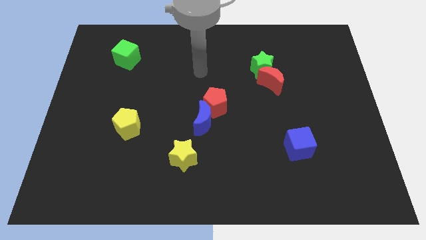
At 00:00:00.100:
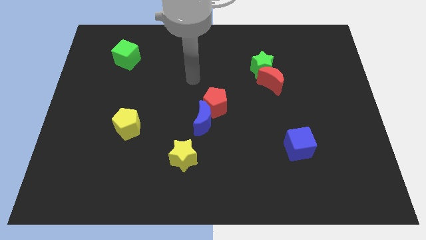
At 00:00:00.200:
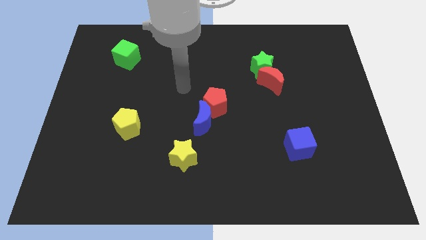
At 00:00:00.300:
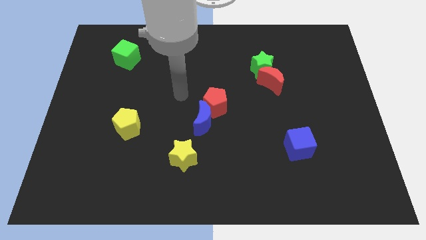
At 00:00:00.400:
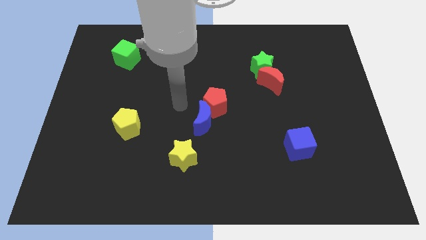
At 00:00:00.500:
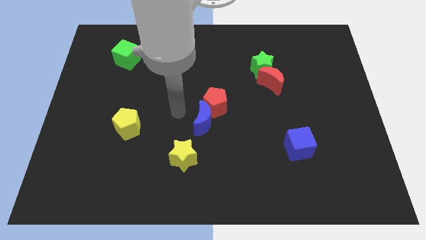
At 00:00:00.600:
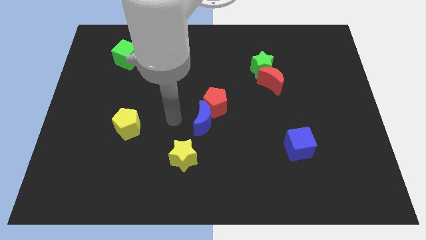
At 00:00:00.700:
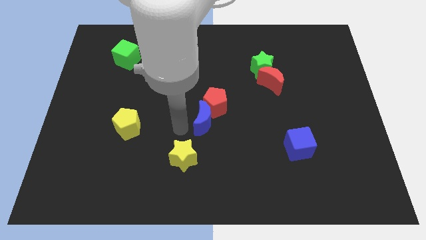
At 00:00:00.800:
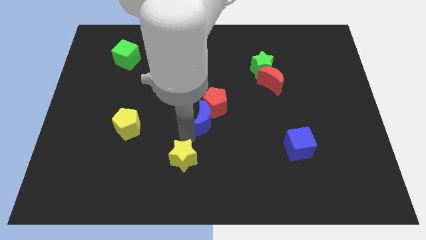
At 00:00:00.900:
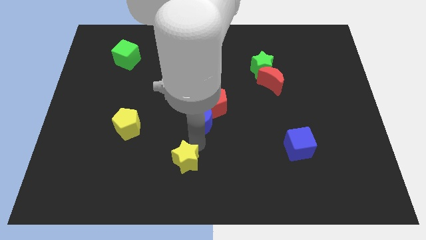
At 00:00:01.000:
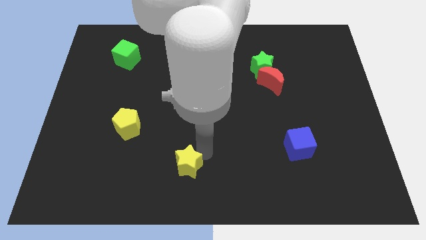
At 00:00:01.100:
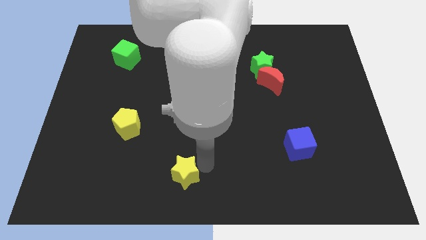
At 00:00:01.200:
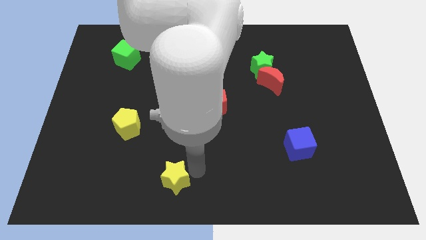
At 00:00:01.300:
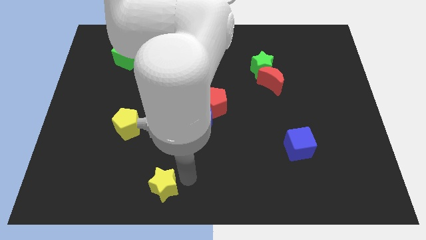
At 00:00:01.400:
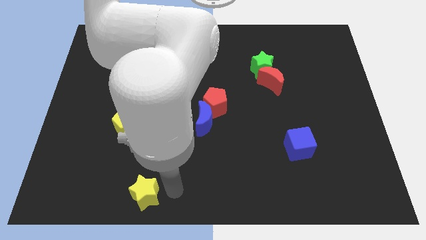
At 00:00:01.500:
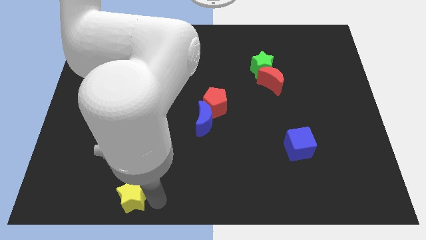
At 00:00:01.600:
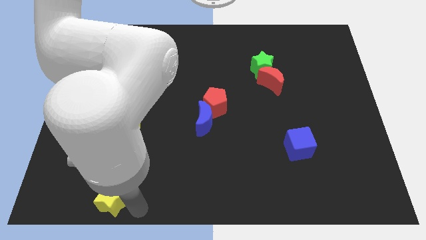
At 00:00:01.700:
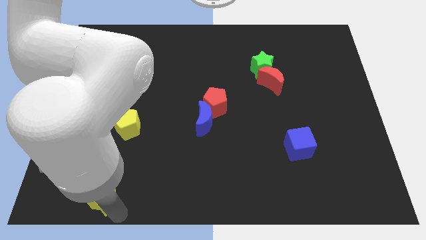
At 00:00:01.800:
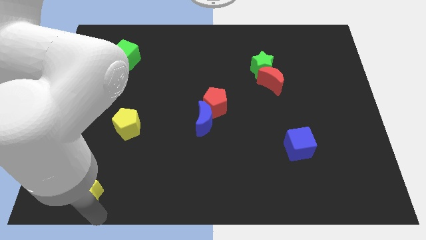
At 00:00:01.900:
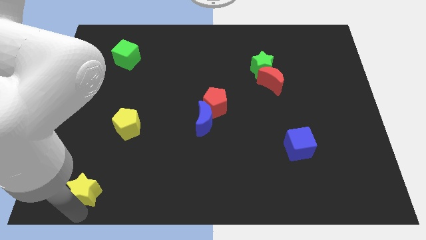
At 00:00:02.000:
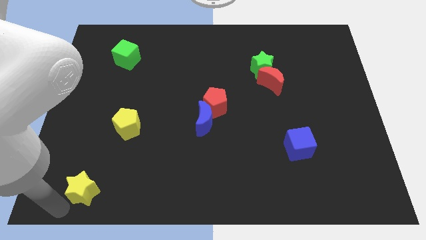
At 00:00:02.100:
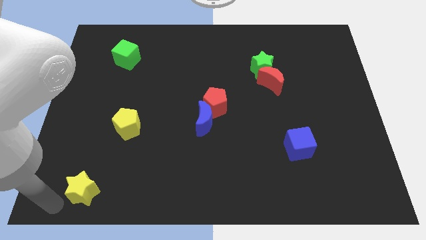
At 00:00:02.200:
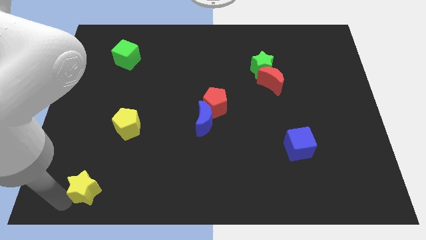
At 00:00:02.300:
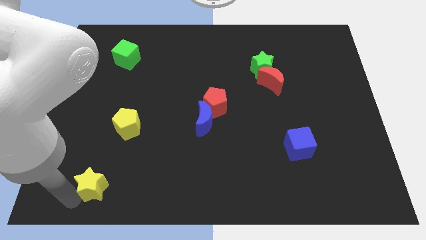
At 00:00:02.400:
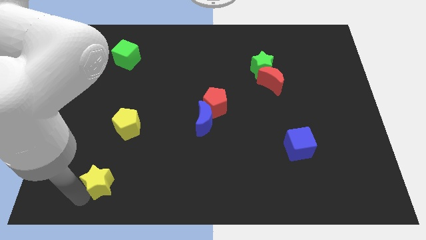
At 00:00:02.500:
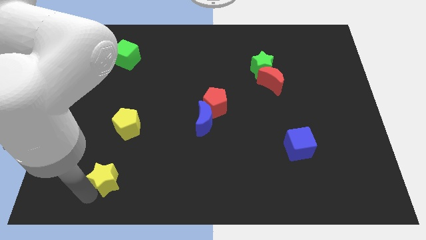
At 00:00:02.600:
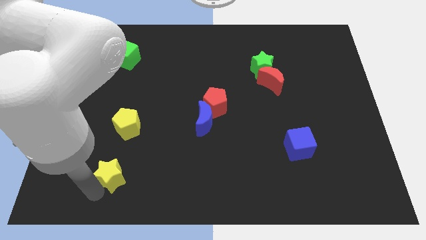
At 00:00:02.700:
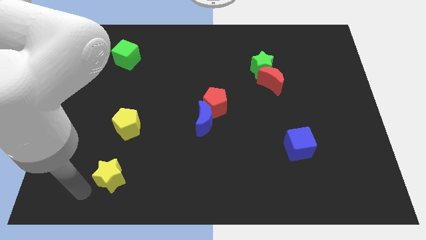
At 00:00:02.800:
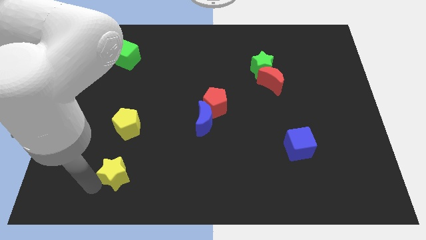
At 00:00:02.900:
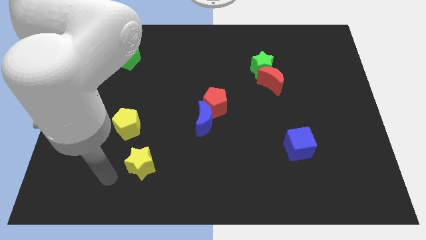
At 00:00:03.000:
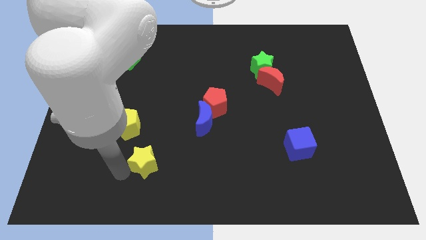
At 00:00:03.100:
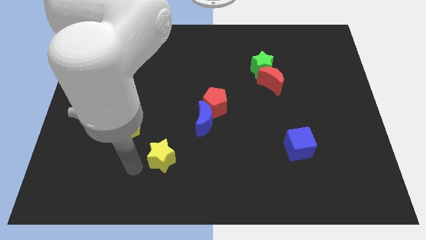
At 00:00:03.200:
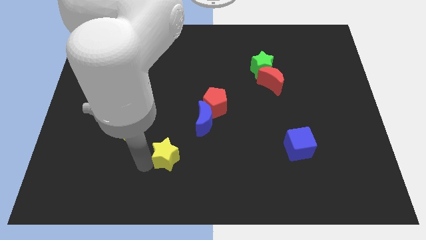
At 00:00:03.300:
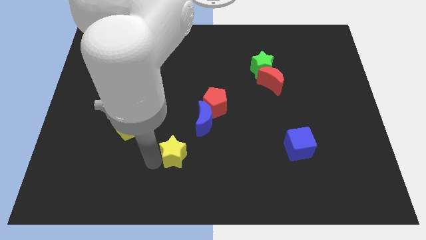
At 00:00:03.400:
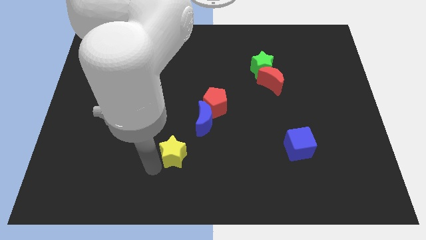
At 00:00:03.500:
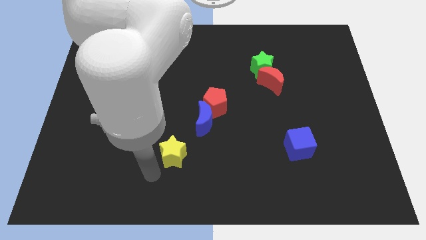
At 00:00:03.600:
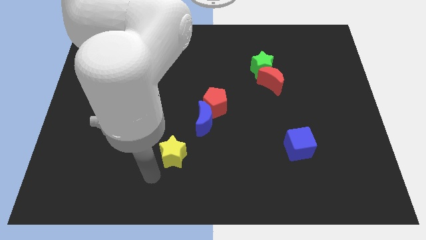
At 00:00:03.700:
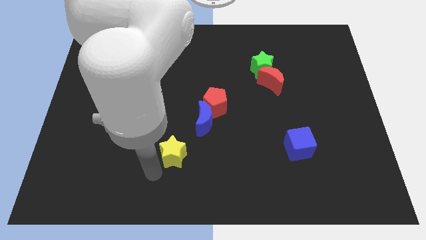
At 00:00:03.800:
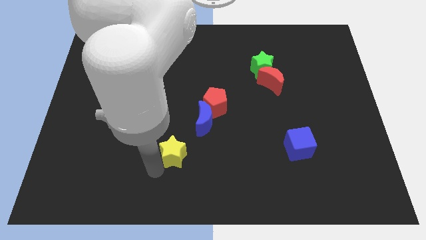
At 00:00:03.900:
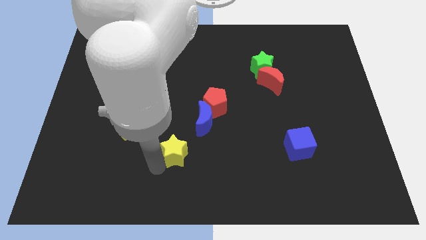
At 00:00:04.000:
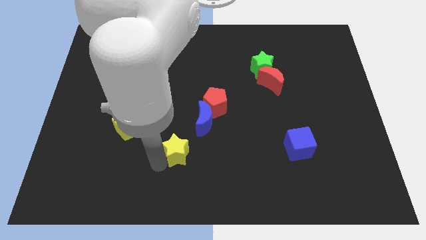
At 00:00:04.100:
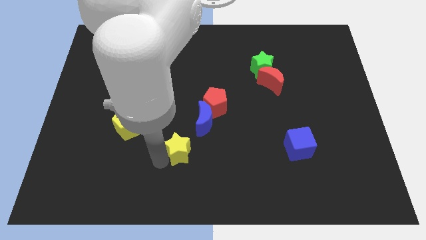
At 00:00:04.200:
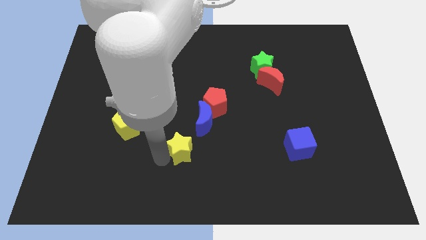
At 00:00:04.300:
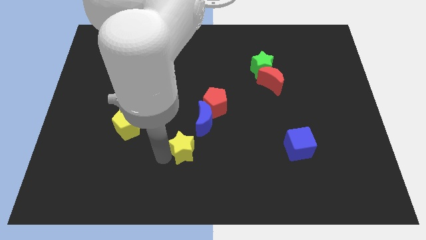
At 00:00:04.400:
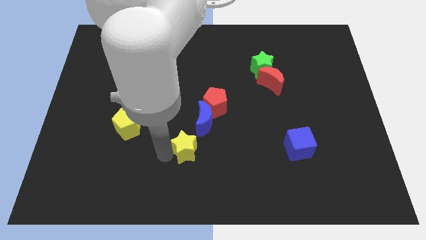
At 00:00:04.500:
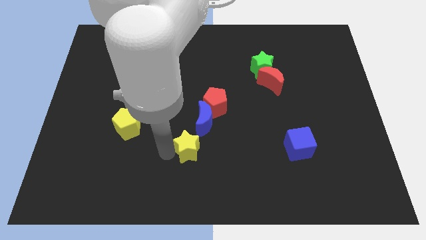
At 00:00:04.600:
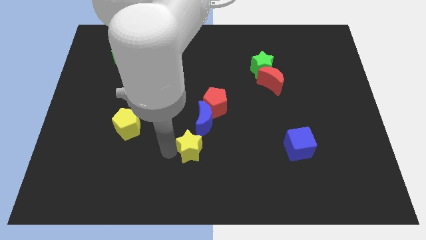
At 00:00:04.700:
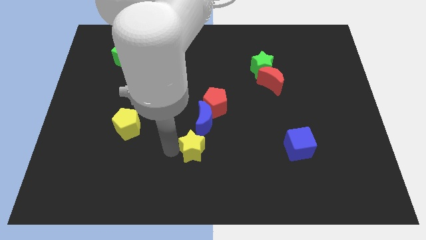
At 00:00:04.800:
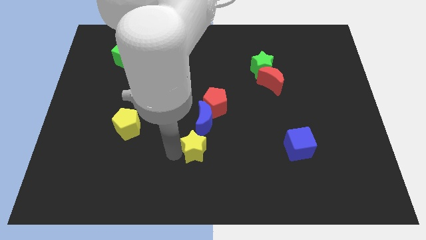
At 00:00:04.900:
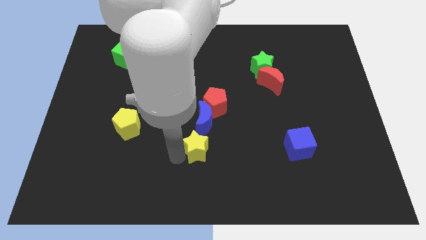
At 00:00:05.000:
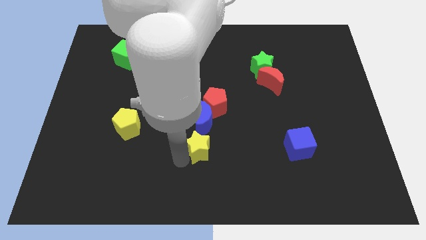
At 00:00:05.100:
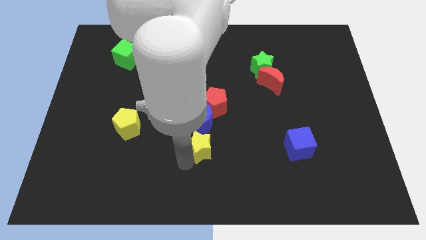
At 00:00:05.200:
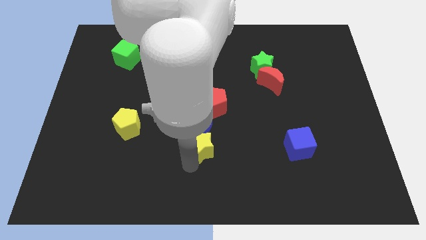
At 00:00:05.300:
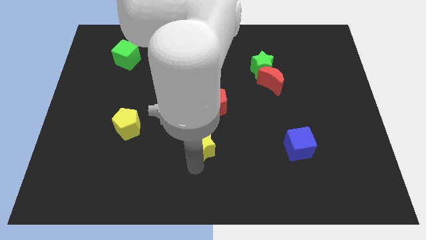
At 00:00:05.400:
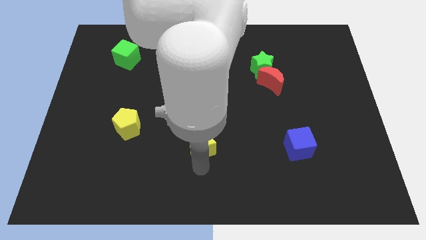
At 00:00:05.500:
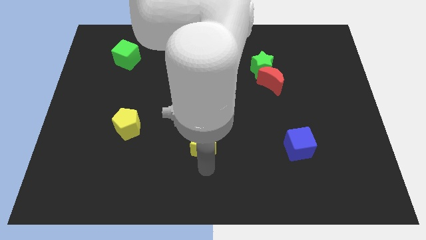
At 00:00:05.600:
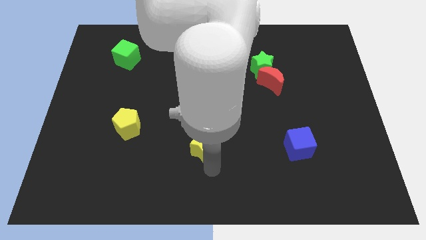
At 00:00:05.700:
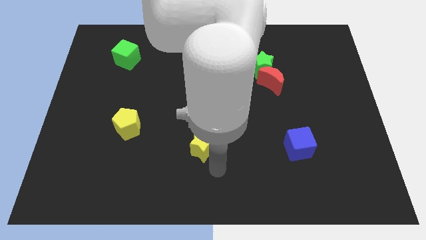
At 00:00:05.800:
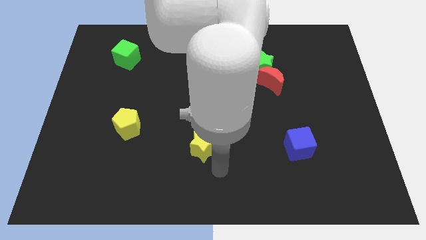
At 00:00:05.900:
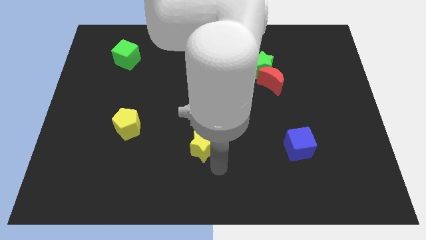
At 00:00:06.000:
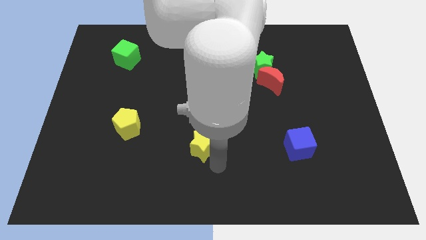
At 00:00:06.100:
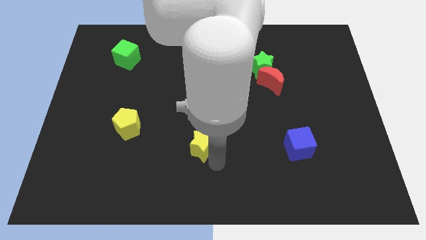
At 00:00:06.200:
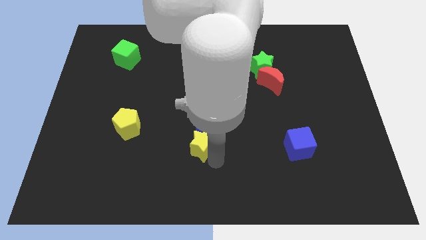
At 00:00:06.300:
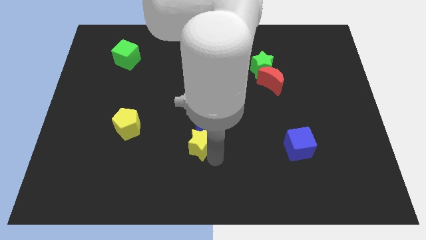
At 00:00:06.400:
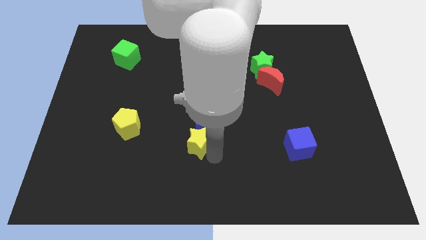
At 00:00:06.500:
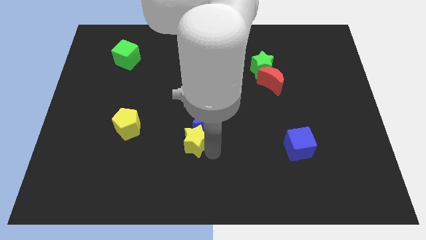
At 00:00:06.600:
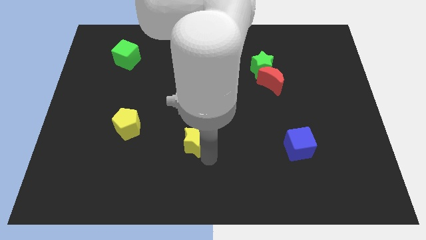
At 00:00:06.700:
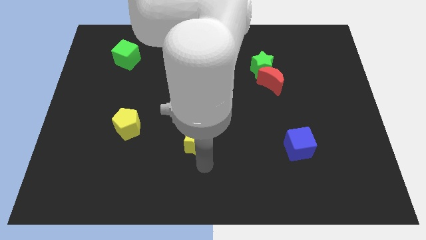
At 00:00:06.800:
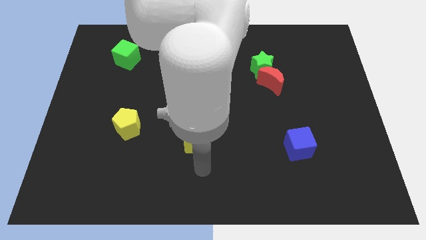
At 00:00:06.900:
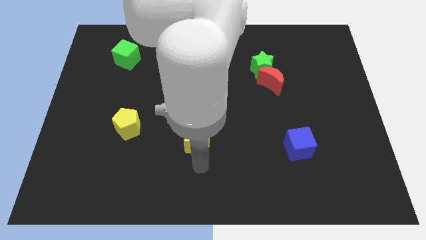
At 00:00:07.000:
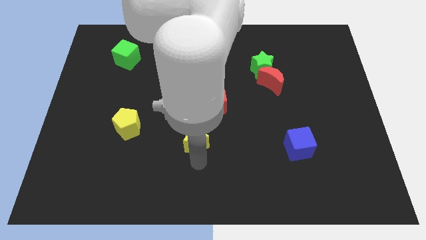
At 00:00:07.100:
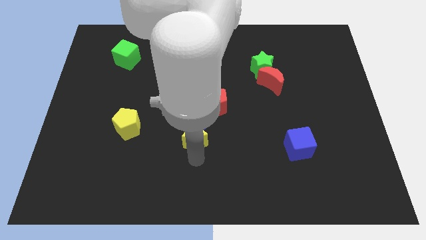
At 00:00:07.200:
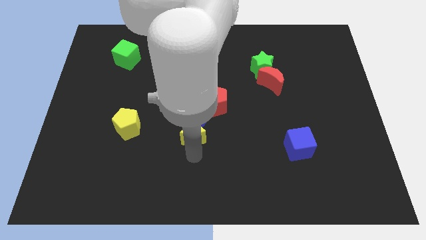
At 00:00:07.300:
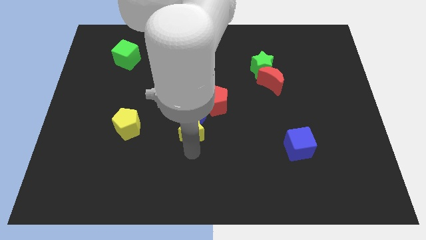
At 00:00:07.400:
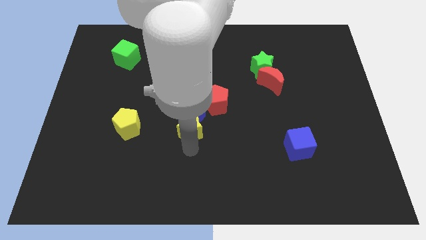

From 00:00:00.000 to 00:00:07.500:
slide the yellow star up a bit

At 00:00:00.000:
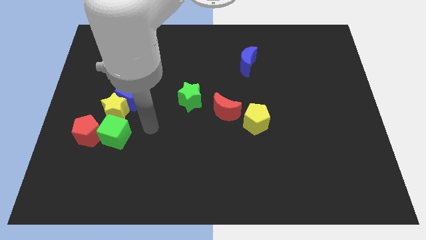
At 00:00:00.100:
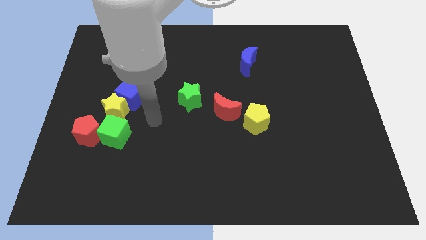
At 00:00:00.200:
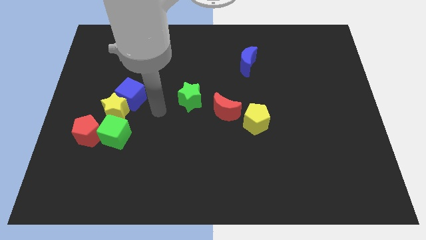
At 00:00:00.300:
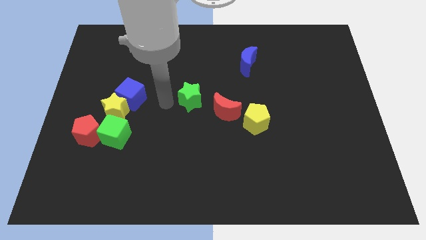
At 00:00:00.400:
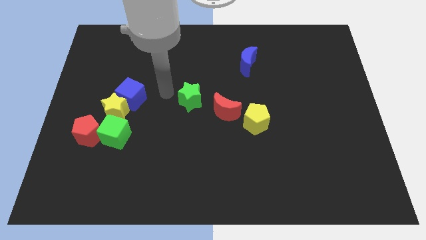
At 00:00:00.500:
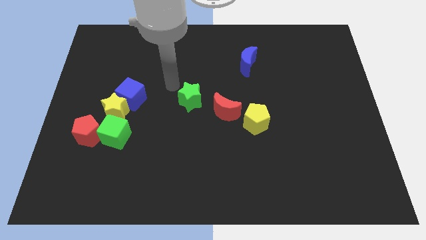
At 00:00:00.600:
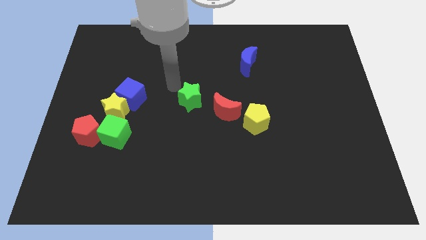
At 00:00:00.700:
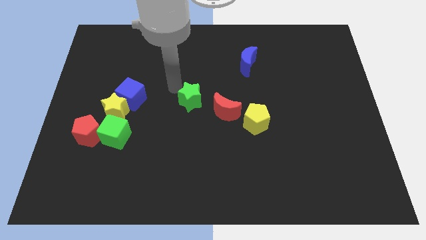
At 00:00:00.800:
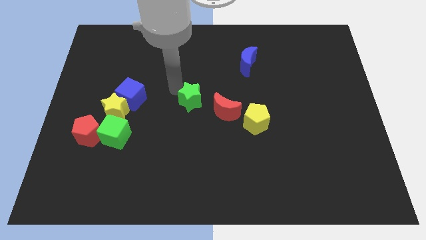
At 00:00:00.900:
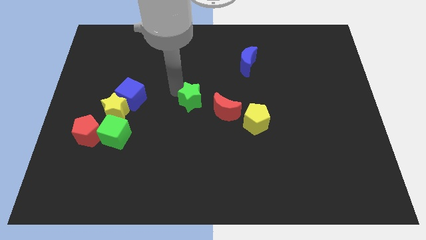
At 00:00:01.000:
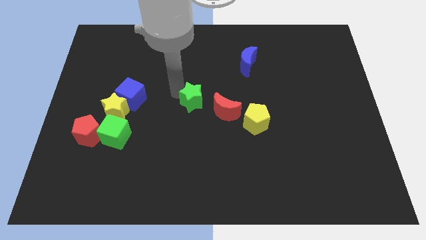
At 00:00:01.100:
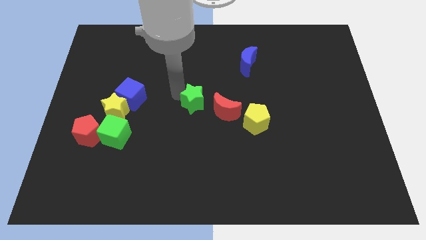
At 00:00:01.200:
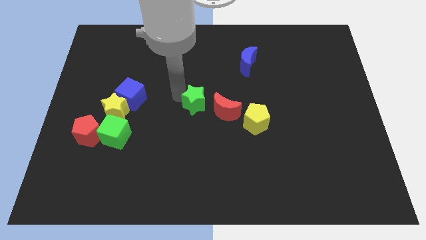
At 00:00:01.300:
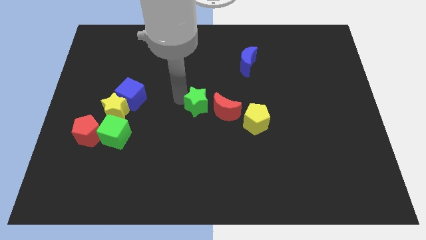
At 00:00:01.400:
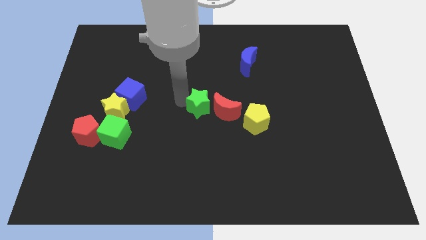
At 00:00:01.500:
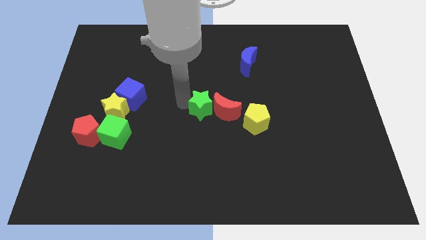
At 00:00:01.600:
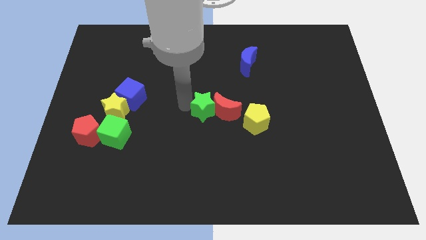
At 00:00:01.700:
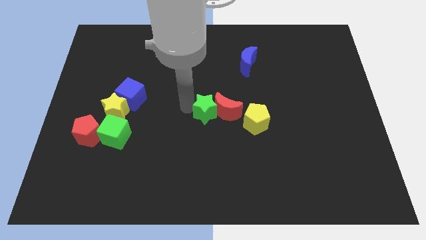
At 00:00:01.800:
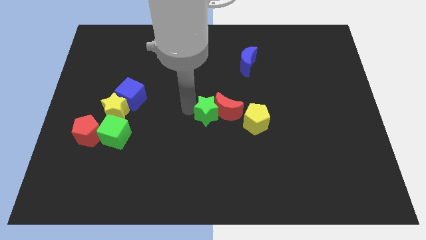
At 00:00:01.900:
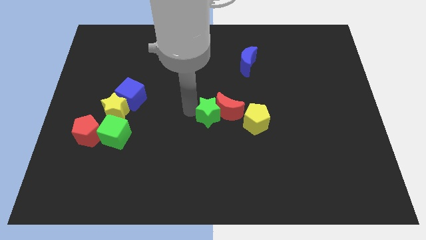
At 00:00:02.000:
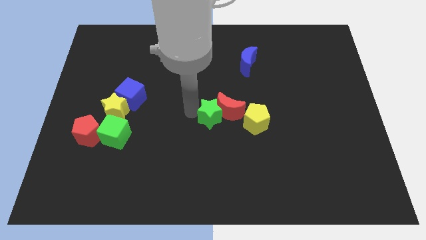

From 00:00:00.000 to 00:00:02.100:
push the green star down and to the right a little bit
